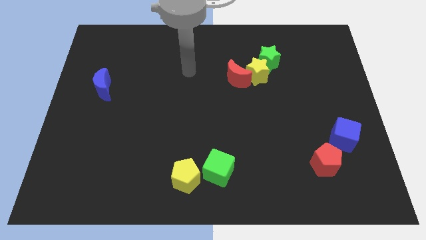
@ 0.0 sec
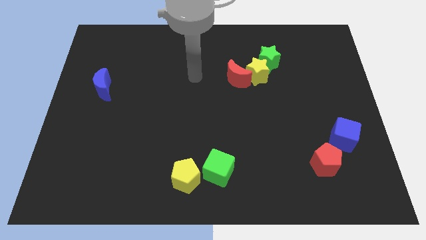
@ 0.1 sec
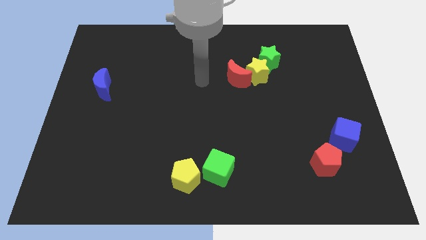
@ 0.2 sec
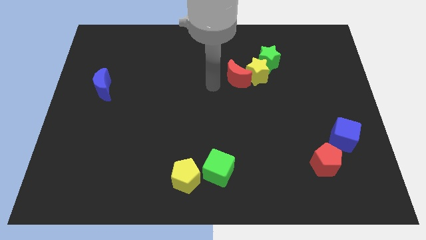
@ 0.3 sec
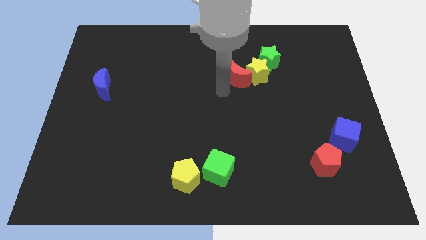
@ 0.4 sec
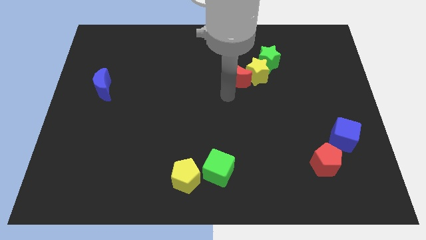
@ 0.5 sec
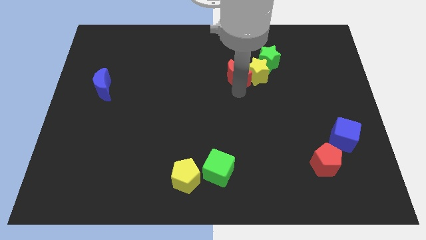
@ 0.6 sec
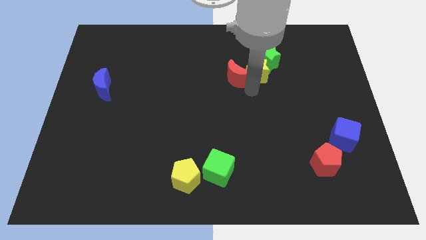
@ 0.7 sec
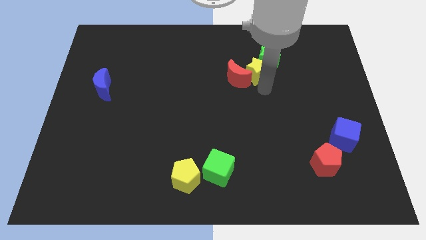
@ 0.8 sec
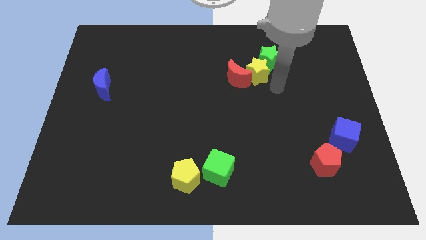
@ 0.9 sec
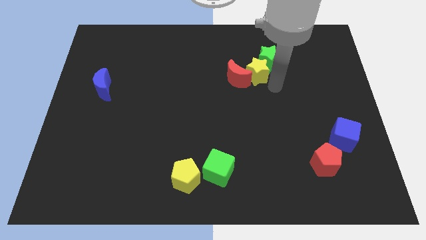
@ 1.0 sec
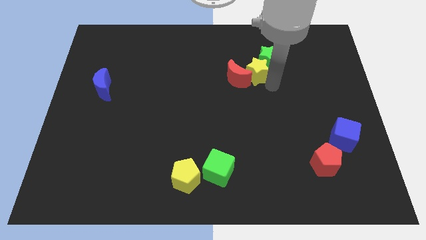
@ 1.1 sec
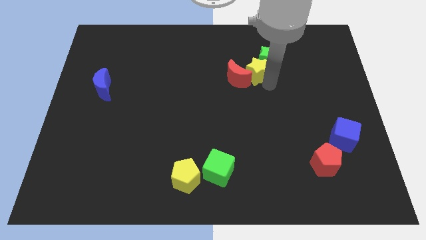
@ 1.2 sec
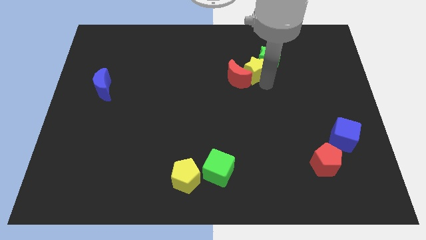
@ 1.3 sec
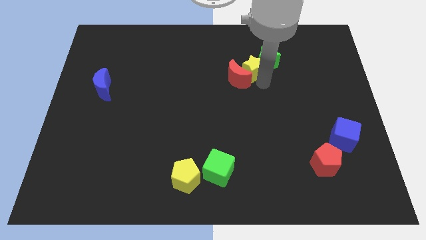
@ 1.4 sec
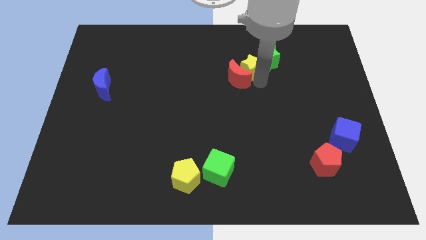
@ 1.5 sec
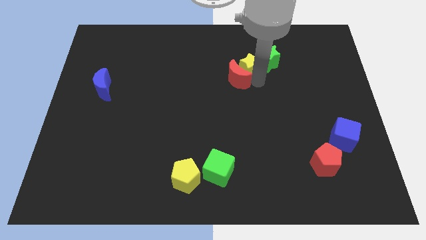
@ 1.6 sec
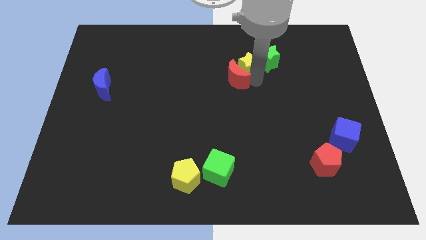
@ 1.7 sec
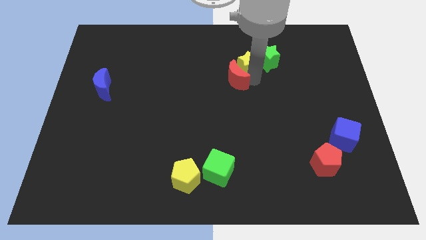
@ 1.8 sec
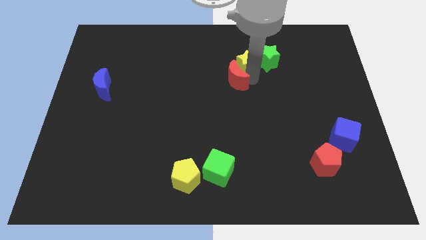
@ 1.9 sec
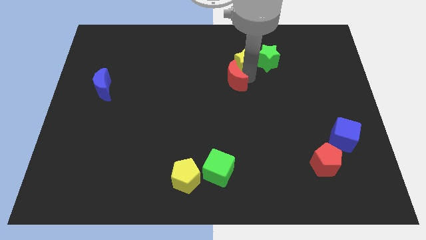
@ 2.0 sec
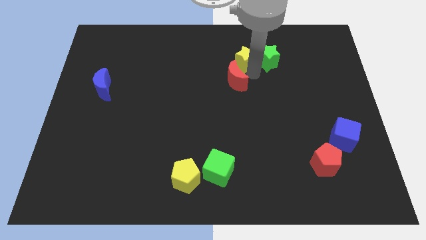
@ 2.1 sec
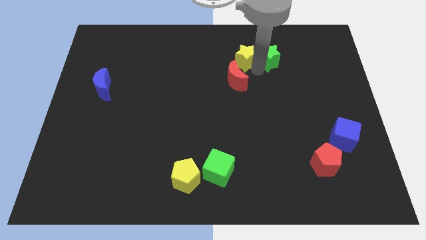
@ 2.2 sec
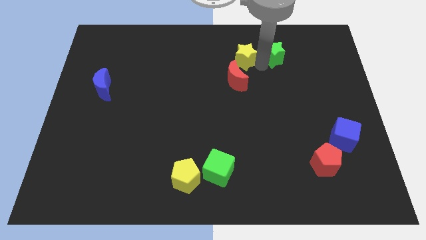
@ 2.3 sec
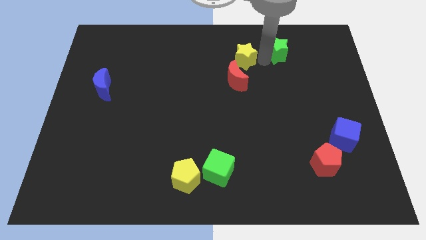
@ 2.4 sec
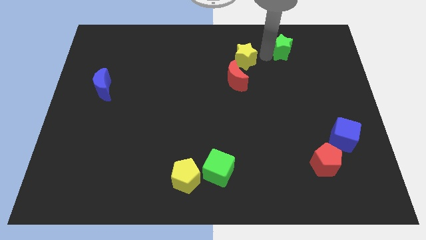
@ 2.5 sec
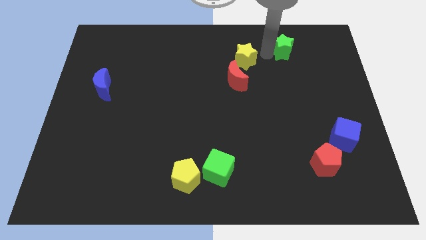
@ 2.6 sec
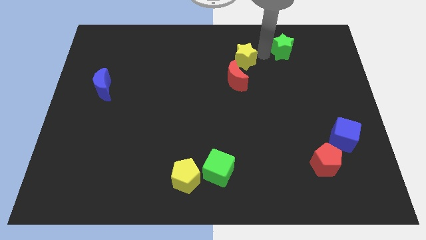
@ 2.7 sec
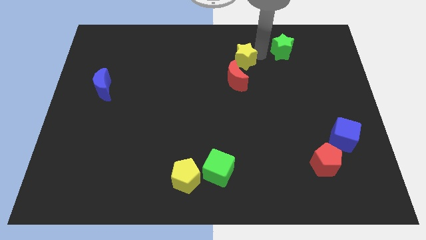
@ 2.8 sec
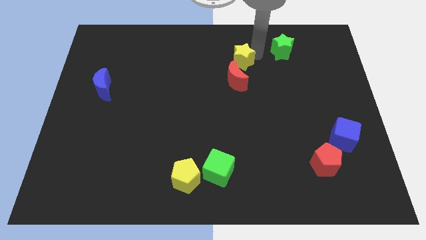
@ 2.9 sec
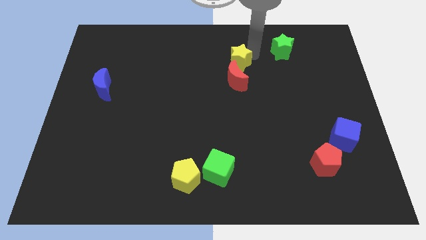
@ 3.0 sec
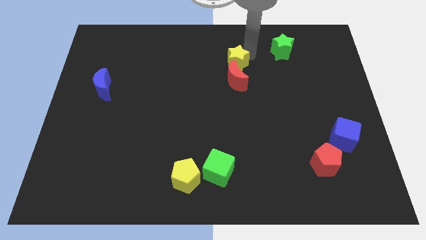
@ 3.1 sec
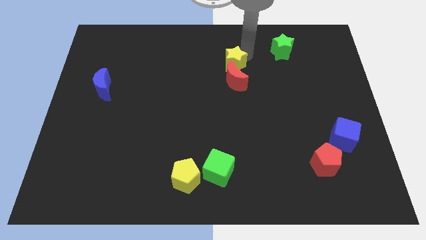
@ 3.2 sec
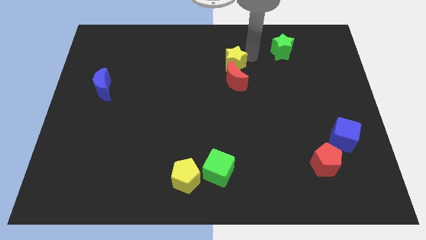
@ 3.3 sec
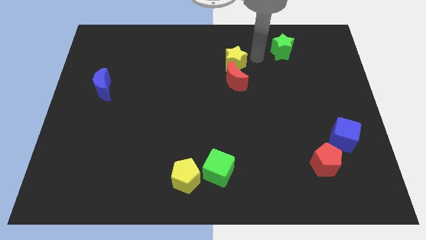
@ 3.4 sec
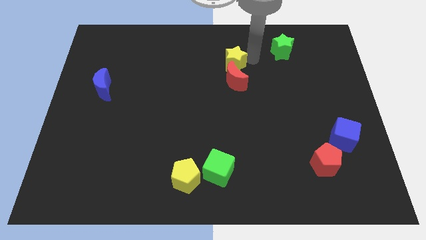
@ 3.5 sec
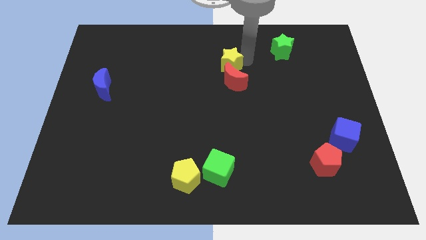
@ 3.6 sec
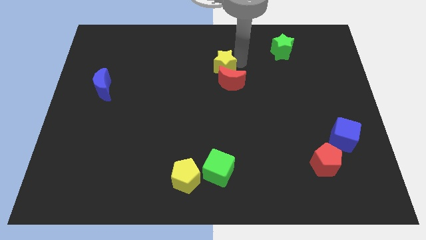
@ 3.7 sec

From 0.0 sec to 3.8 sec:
slightly push the yellow star left

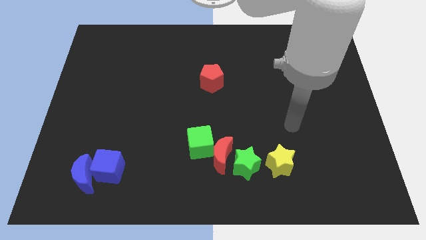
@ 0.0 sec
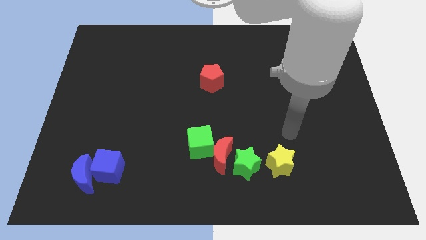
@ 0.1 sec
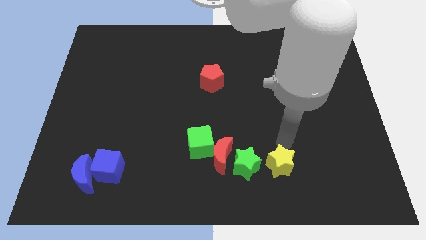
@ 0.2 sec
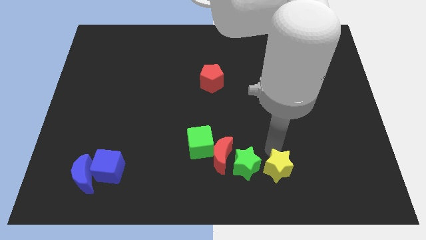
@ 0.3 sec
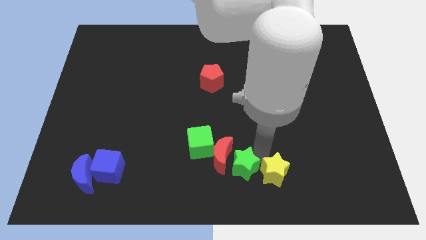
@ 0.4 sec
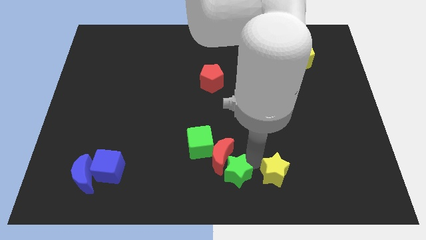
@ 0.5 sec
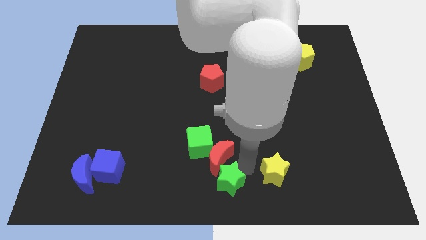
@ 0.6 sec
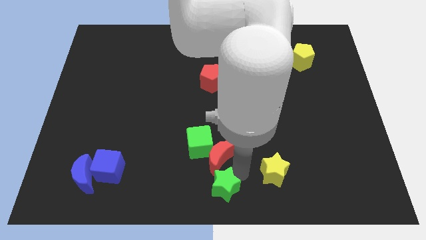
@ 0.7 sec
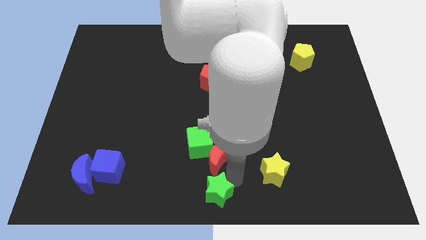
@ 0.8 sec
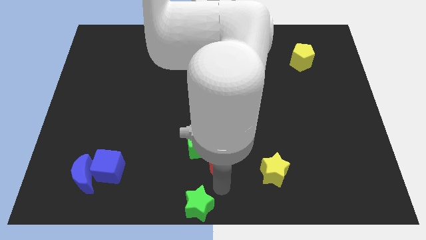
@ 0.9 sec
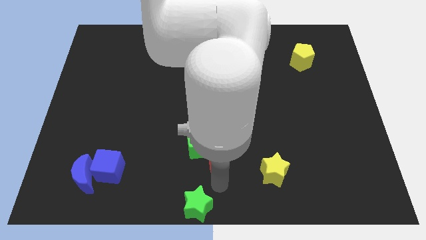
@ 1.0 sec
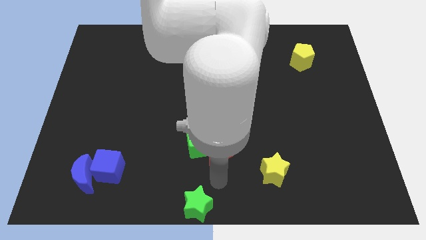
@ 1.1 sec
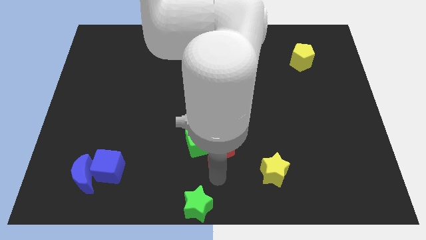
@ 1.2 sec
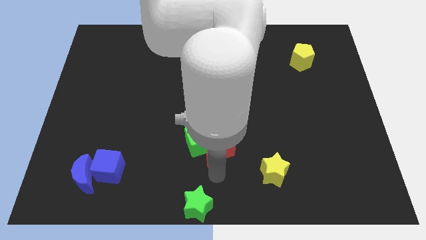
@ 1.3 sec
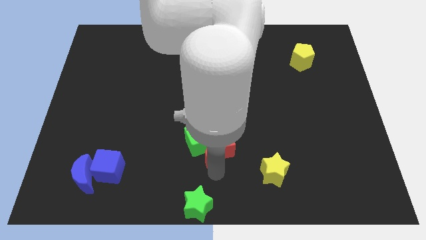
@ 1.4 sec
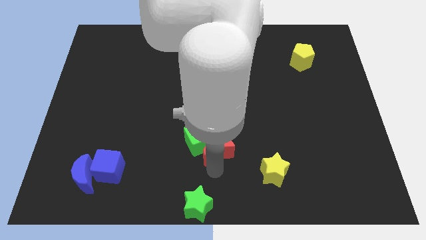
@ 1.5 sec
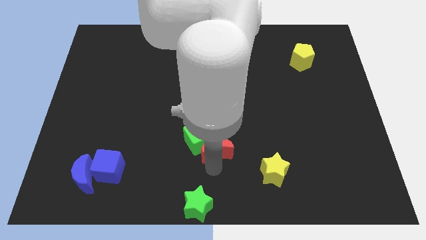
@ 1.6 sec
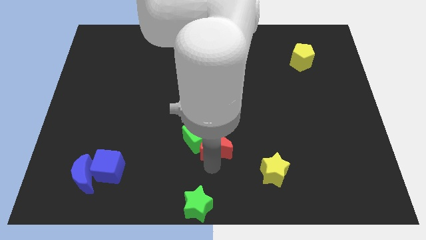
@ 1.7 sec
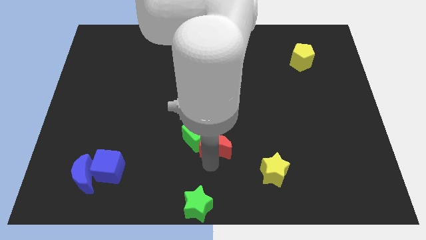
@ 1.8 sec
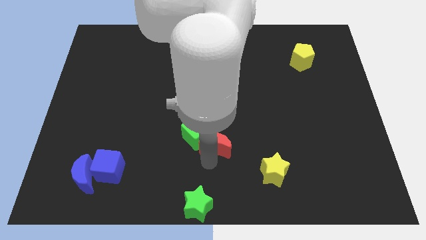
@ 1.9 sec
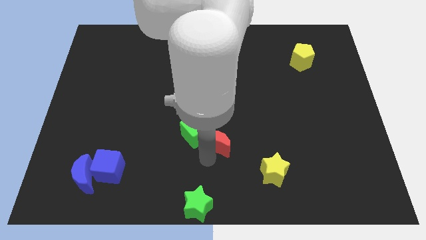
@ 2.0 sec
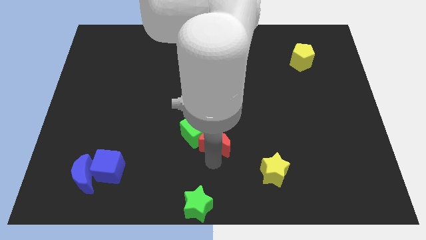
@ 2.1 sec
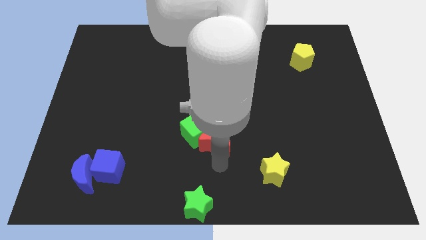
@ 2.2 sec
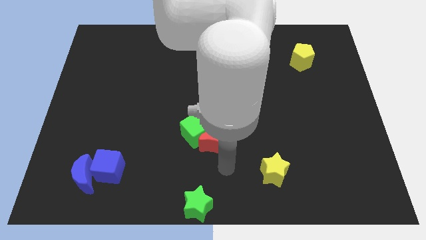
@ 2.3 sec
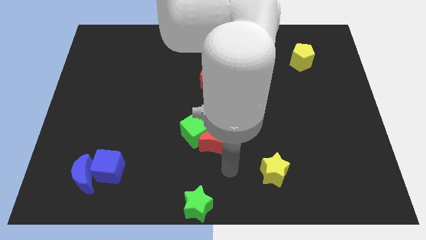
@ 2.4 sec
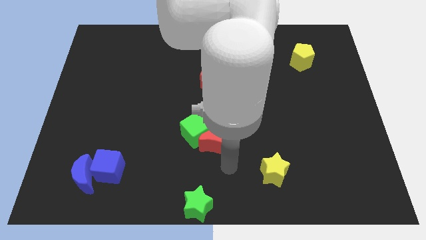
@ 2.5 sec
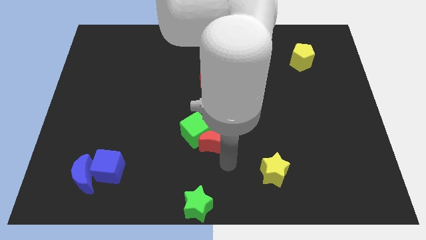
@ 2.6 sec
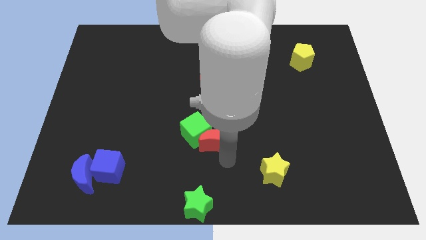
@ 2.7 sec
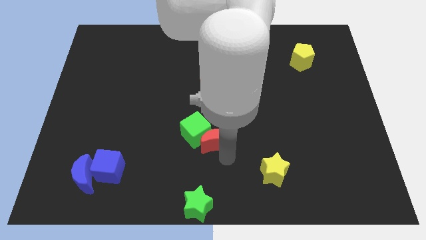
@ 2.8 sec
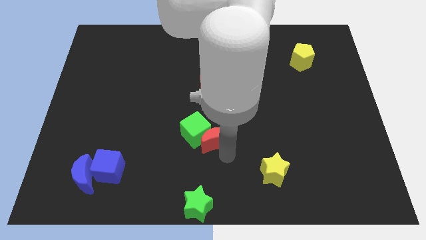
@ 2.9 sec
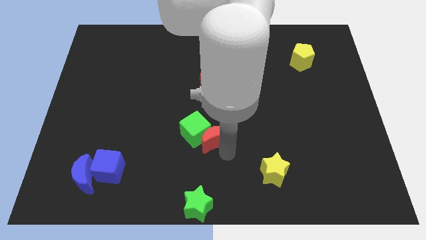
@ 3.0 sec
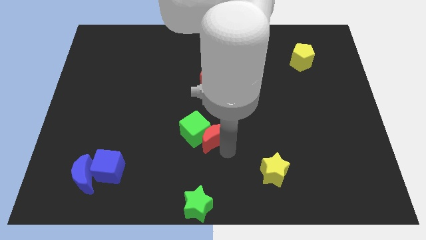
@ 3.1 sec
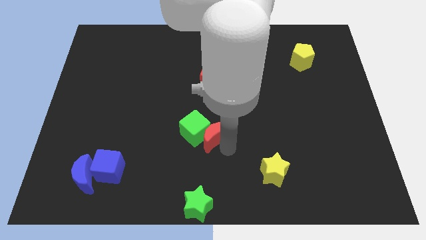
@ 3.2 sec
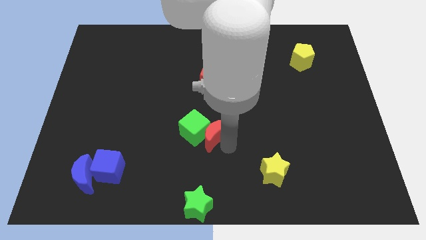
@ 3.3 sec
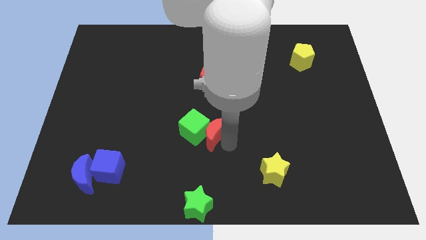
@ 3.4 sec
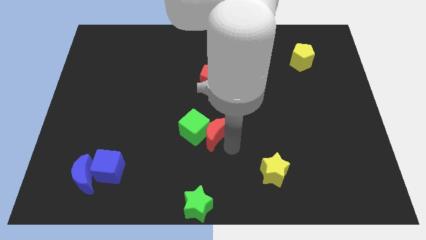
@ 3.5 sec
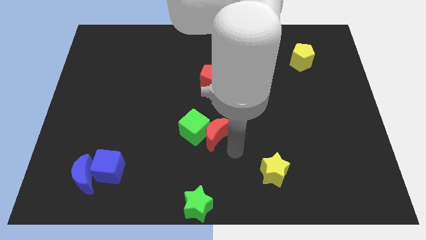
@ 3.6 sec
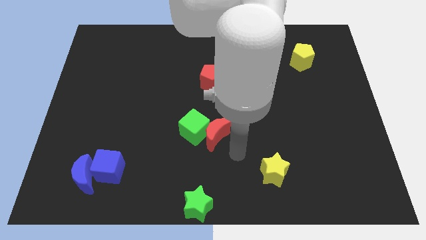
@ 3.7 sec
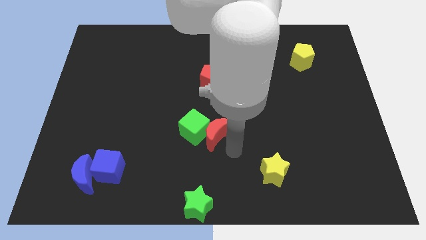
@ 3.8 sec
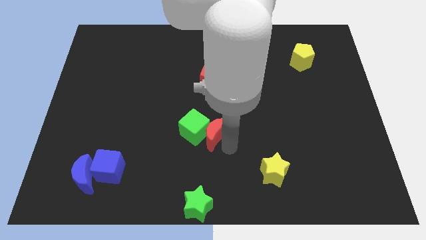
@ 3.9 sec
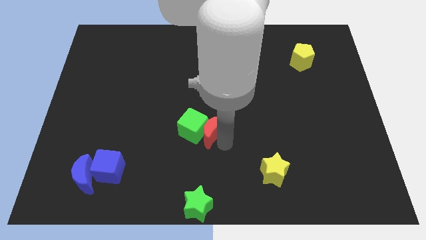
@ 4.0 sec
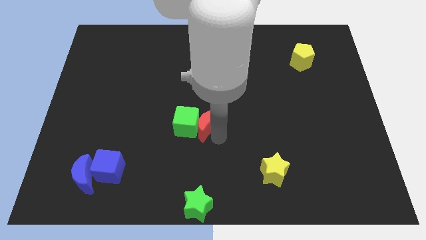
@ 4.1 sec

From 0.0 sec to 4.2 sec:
push the red moon up and left a little bit
